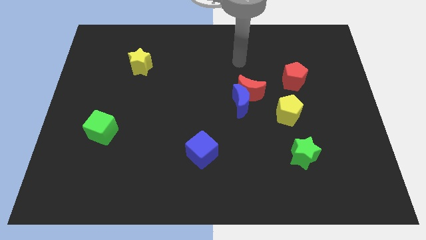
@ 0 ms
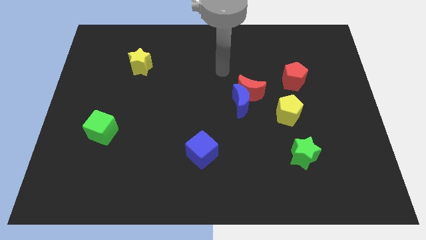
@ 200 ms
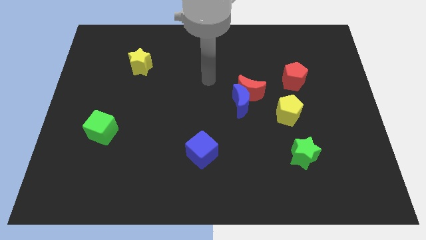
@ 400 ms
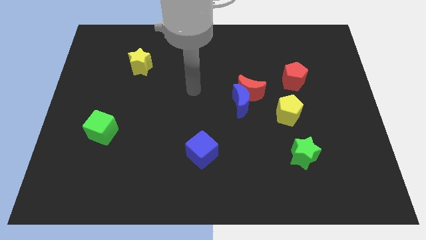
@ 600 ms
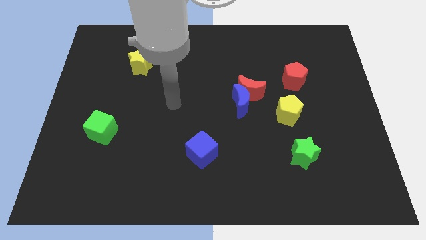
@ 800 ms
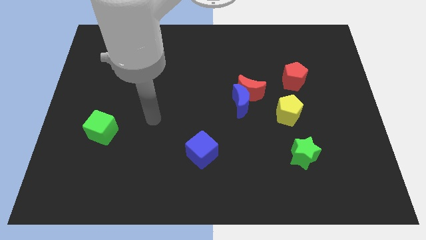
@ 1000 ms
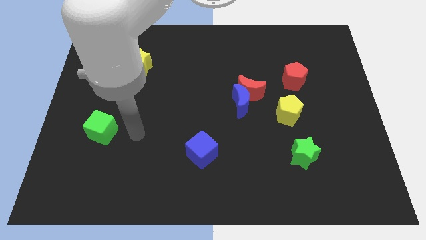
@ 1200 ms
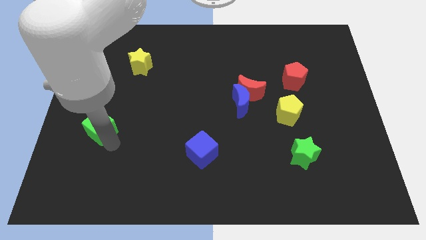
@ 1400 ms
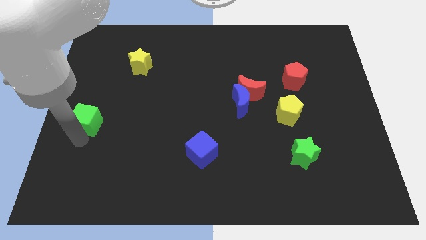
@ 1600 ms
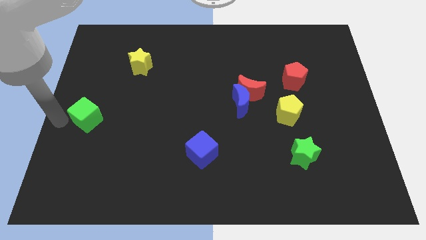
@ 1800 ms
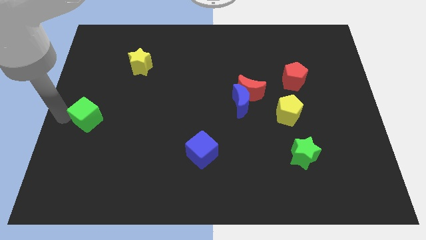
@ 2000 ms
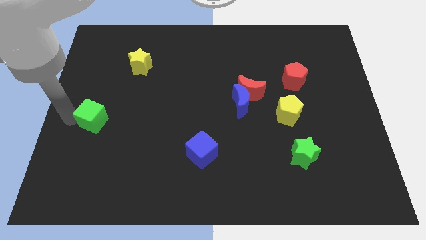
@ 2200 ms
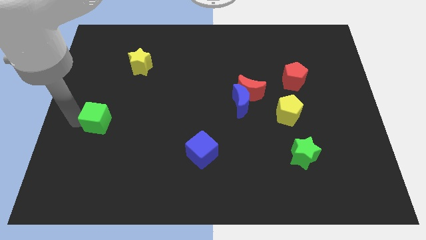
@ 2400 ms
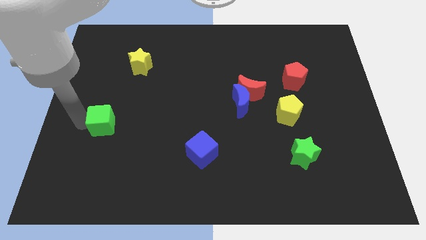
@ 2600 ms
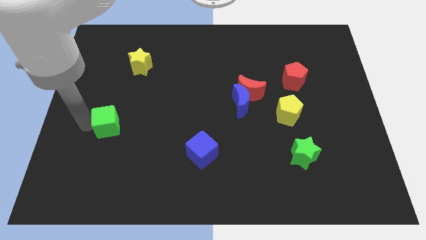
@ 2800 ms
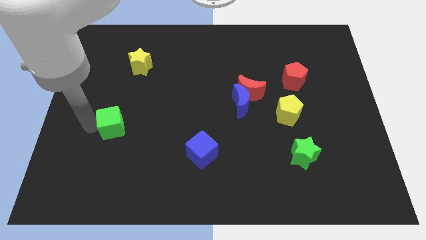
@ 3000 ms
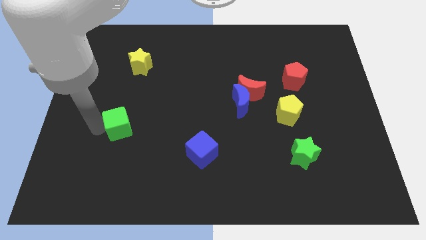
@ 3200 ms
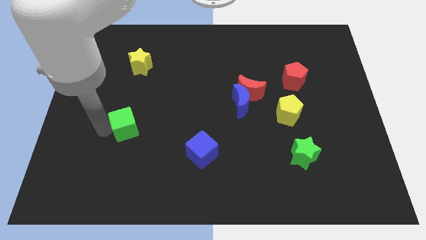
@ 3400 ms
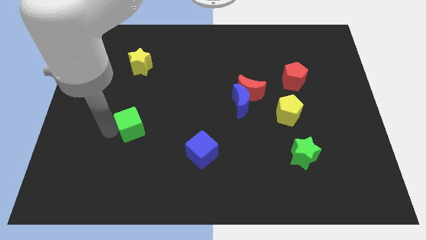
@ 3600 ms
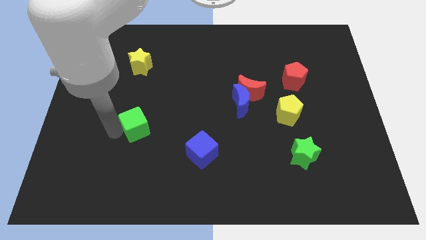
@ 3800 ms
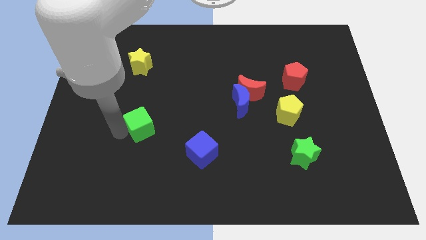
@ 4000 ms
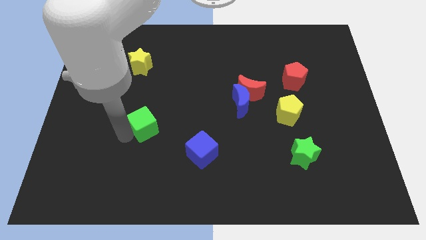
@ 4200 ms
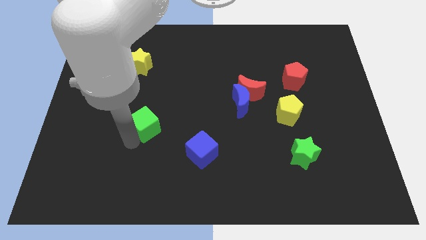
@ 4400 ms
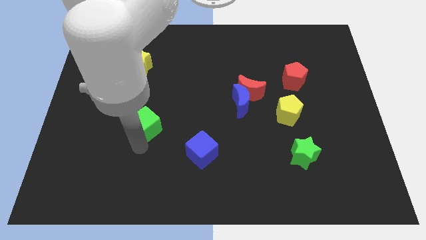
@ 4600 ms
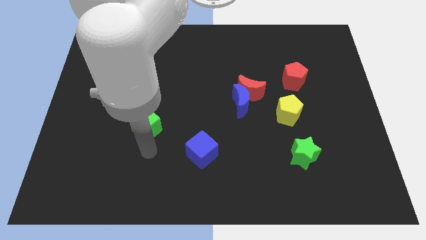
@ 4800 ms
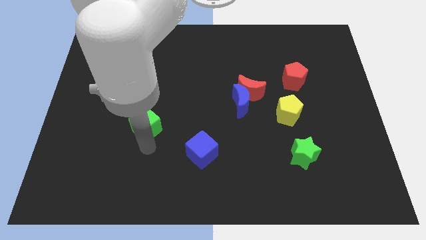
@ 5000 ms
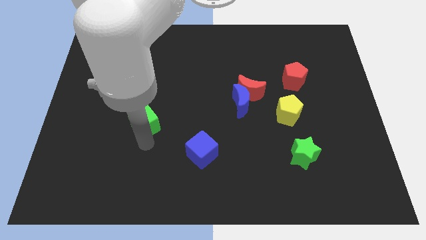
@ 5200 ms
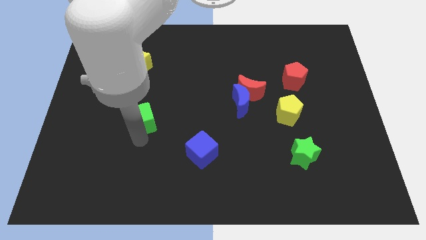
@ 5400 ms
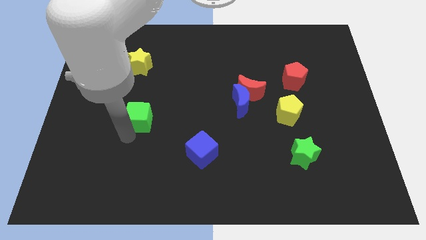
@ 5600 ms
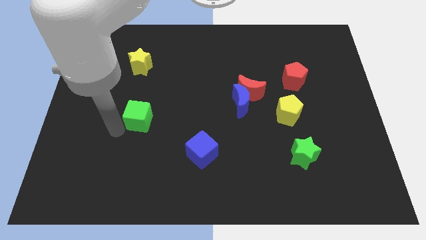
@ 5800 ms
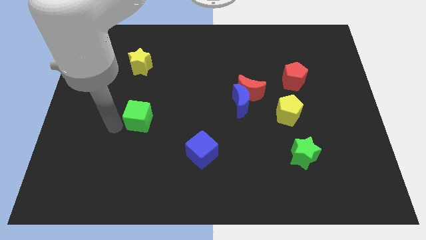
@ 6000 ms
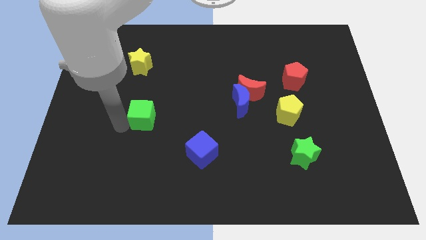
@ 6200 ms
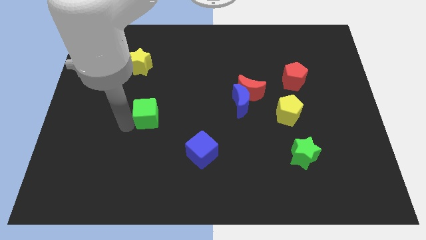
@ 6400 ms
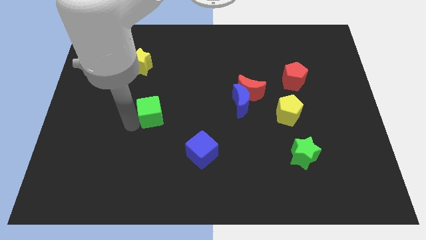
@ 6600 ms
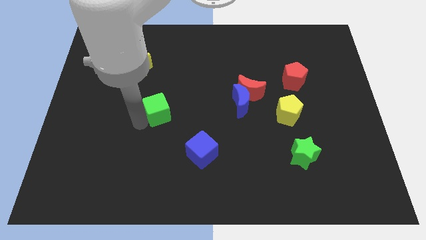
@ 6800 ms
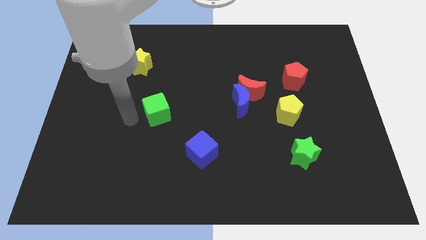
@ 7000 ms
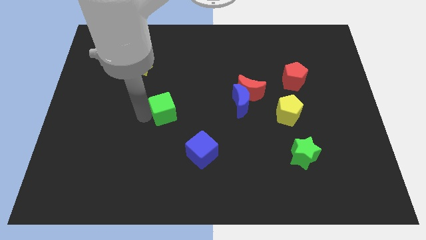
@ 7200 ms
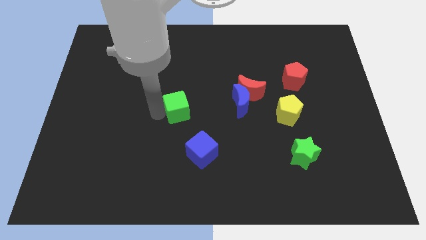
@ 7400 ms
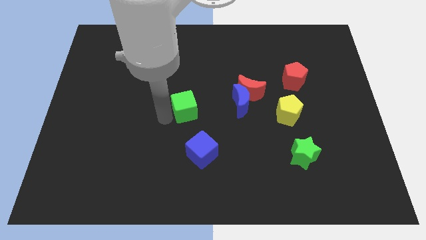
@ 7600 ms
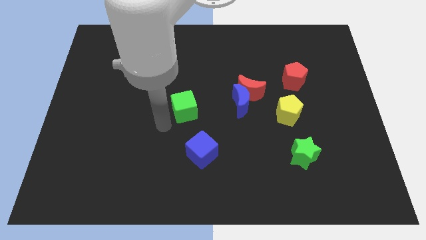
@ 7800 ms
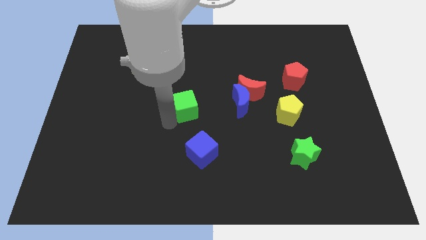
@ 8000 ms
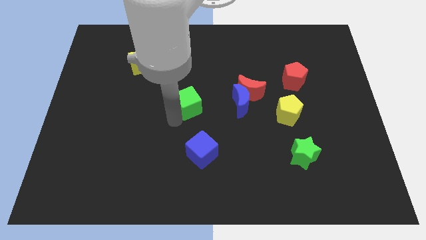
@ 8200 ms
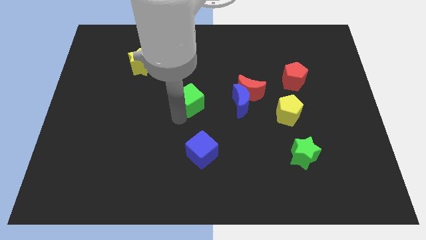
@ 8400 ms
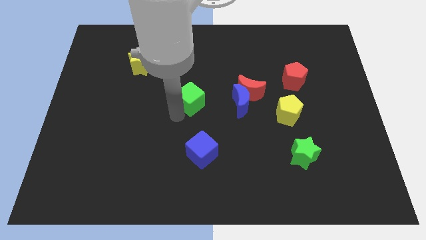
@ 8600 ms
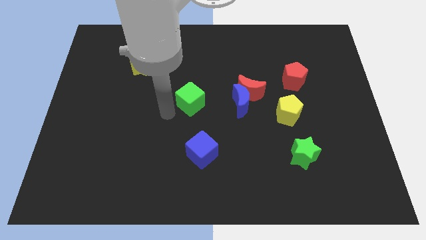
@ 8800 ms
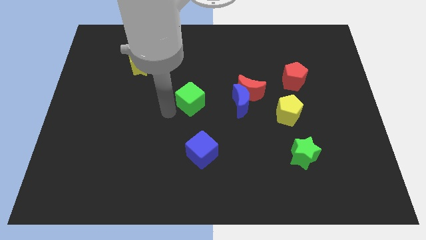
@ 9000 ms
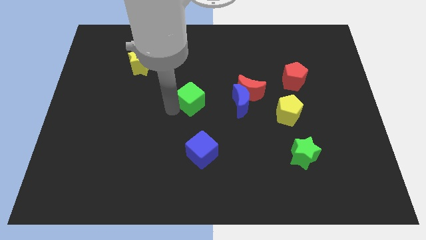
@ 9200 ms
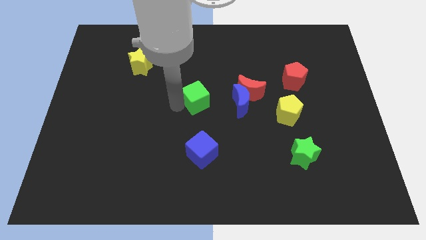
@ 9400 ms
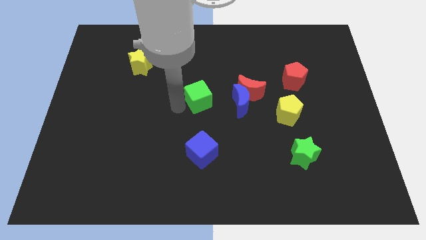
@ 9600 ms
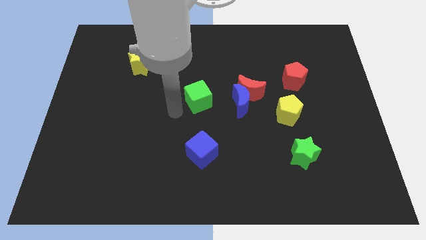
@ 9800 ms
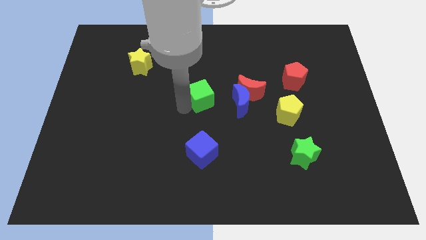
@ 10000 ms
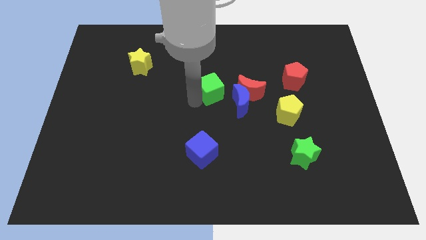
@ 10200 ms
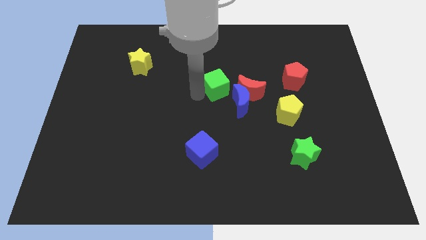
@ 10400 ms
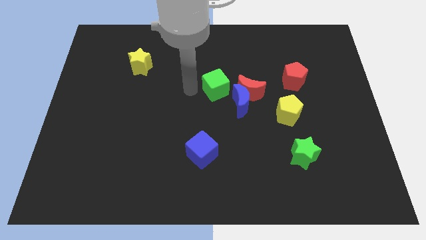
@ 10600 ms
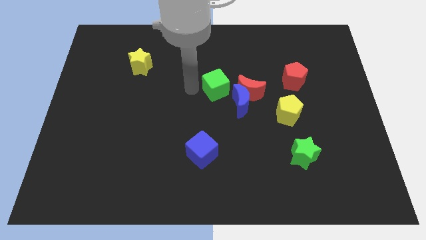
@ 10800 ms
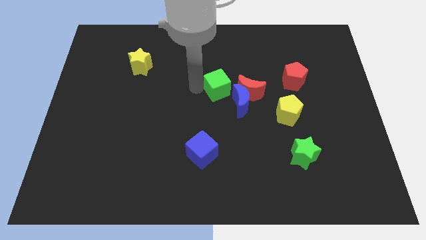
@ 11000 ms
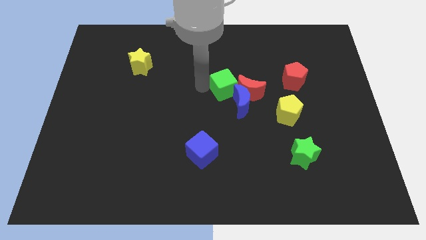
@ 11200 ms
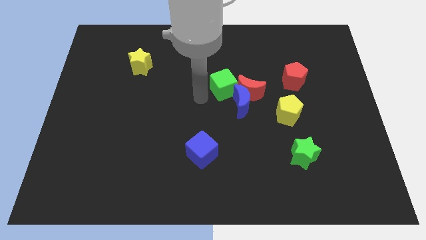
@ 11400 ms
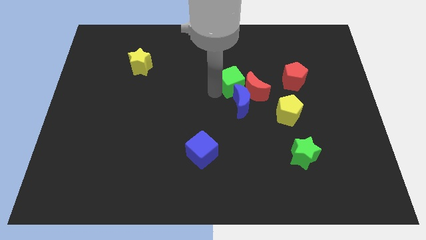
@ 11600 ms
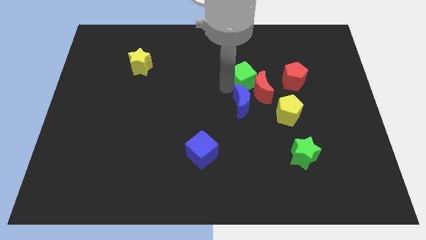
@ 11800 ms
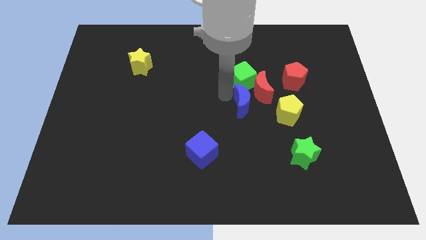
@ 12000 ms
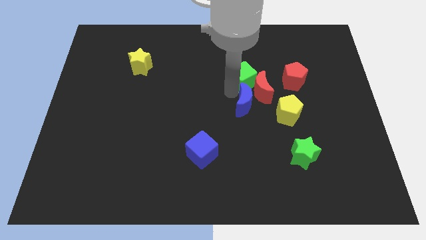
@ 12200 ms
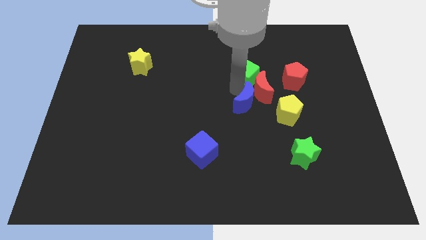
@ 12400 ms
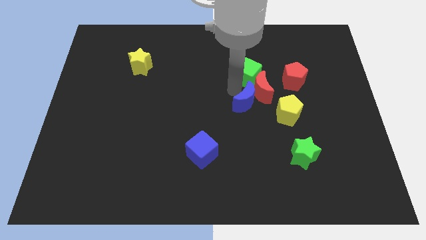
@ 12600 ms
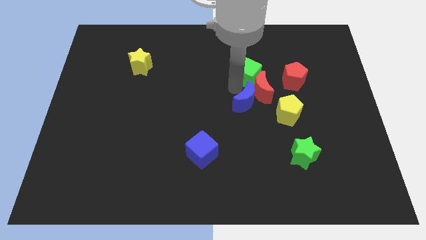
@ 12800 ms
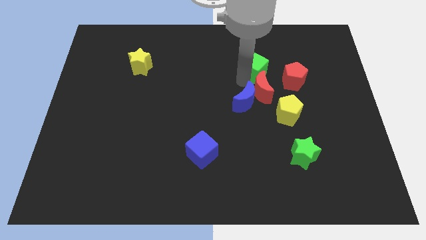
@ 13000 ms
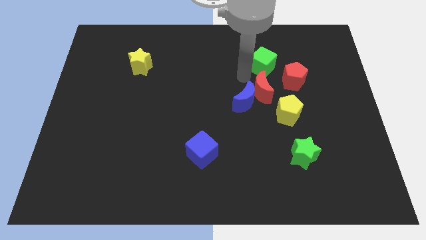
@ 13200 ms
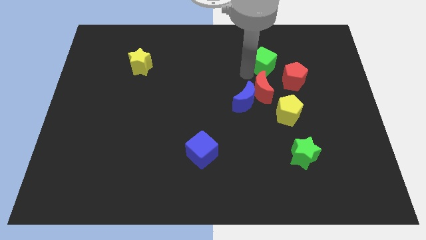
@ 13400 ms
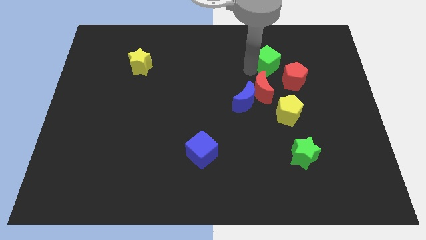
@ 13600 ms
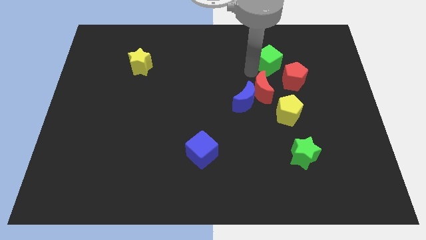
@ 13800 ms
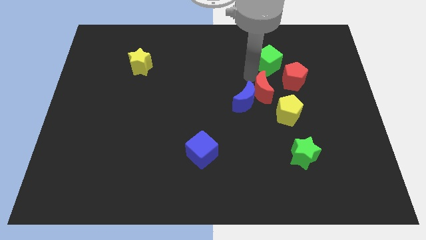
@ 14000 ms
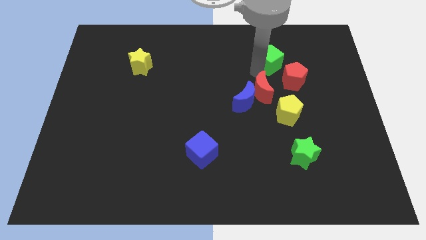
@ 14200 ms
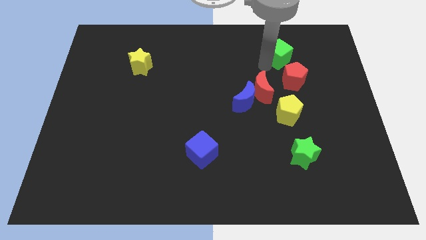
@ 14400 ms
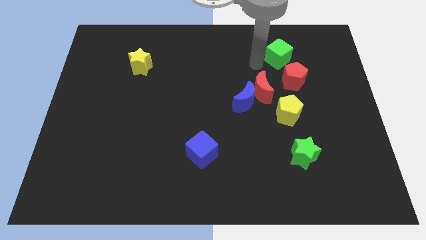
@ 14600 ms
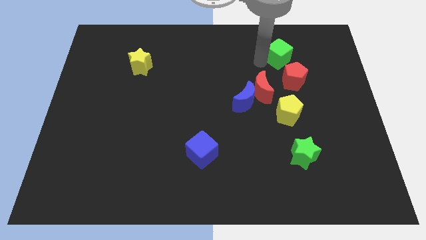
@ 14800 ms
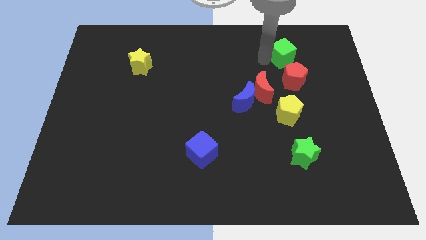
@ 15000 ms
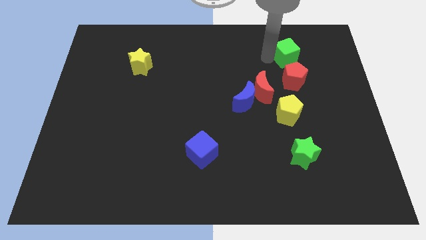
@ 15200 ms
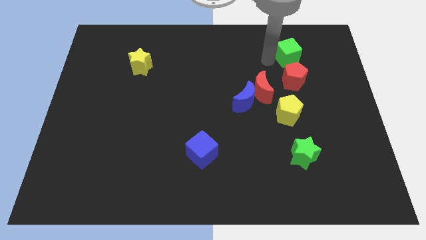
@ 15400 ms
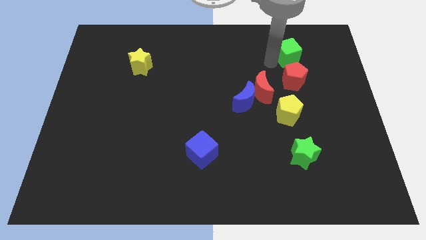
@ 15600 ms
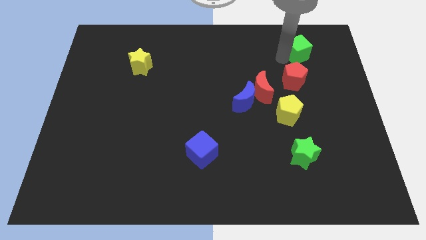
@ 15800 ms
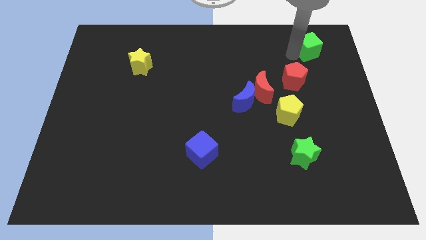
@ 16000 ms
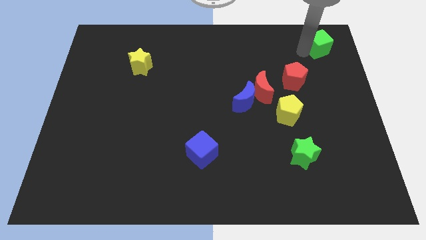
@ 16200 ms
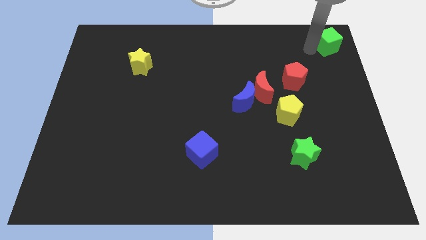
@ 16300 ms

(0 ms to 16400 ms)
put the green cube to the upper right corner
